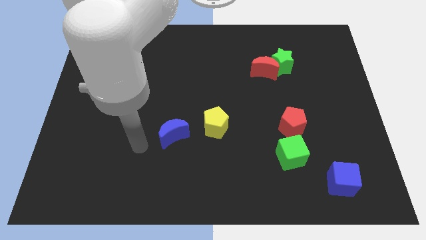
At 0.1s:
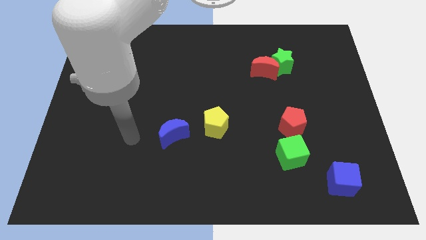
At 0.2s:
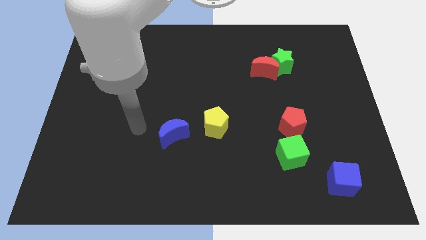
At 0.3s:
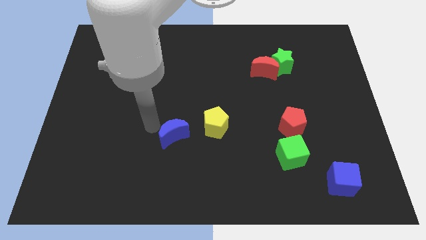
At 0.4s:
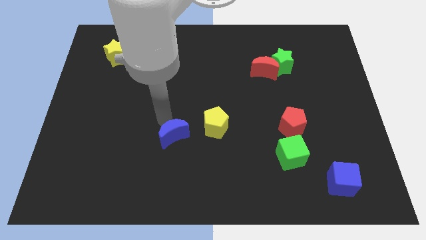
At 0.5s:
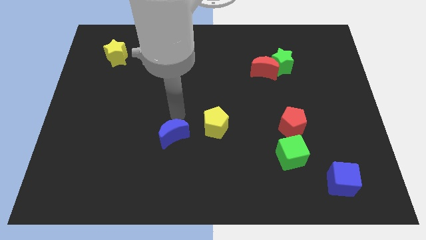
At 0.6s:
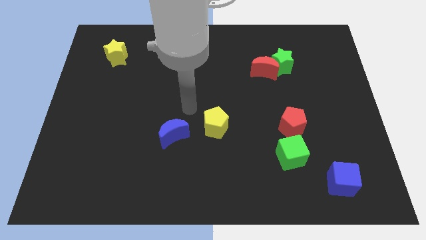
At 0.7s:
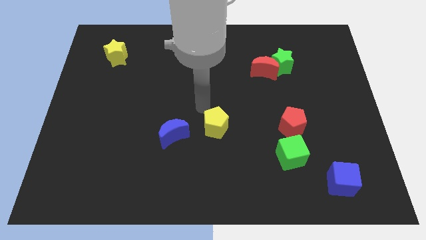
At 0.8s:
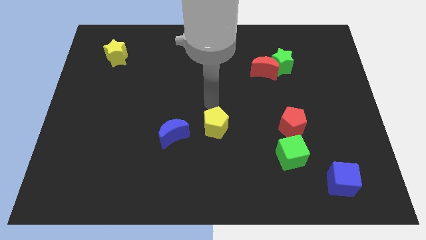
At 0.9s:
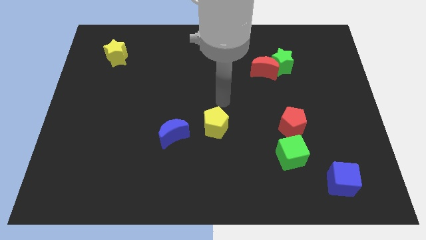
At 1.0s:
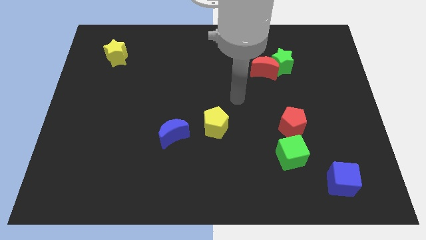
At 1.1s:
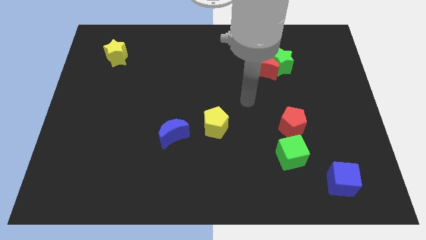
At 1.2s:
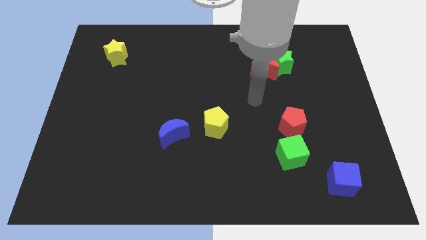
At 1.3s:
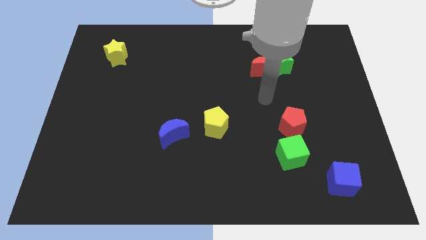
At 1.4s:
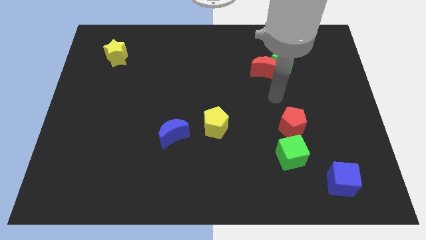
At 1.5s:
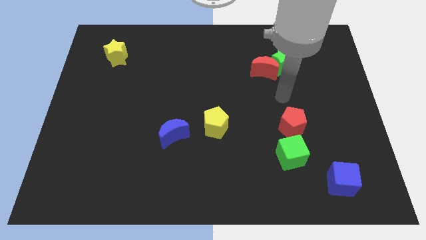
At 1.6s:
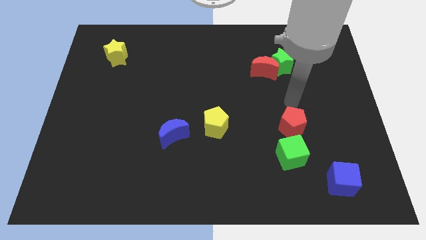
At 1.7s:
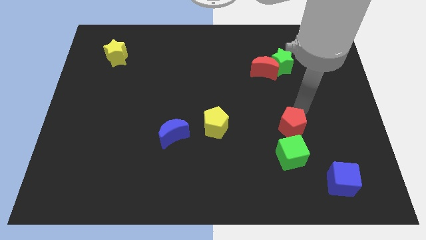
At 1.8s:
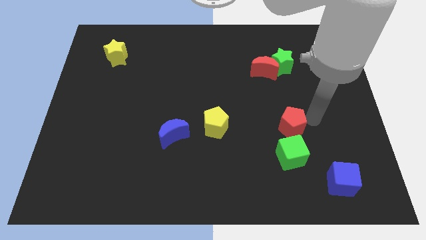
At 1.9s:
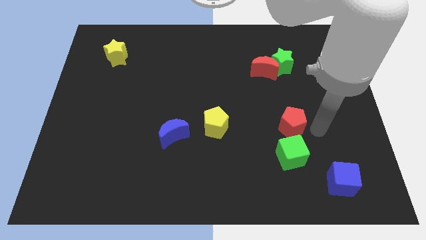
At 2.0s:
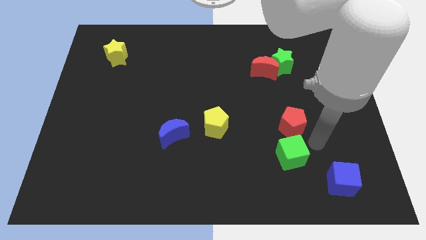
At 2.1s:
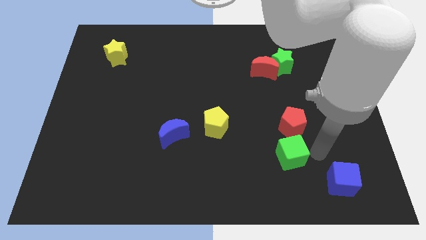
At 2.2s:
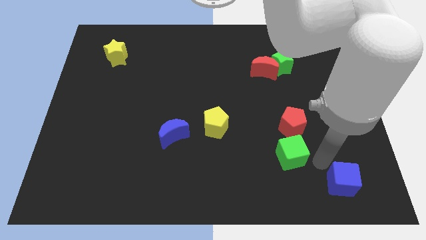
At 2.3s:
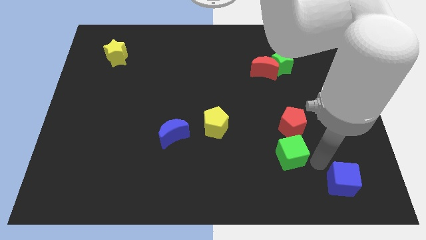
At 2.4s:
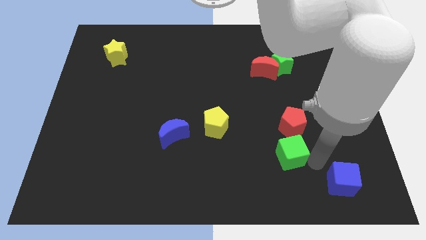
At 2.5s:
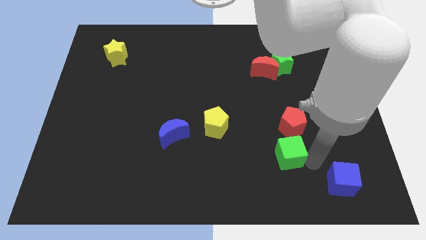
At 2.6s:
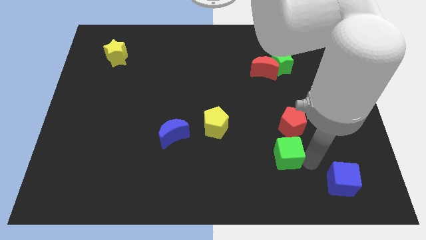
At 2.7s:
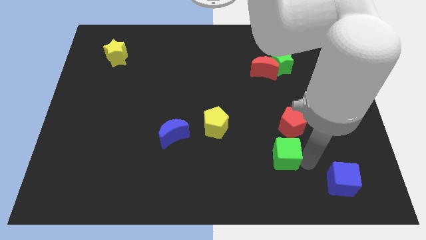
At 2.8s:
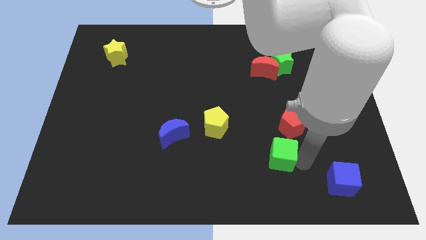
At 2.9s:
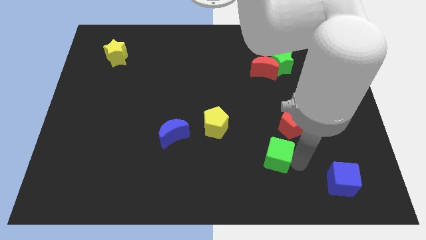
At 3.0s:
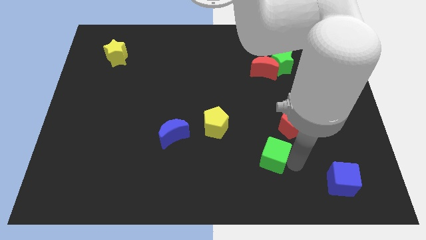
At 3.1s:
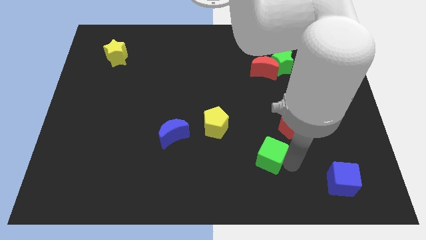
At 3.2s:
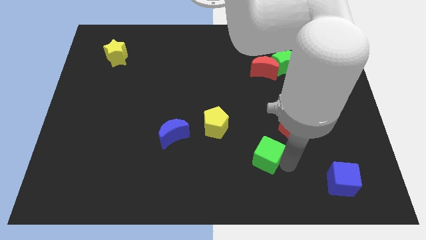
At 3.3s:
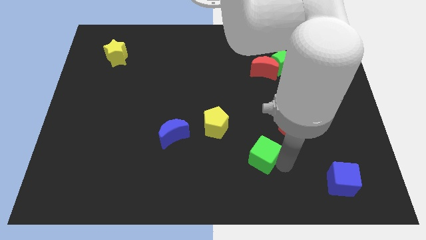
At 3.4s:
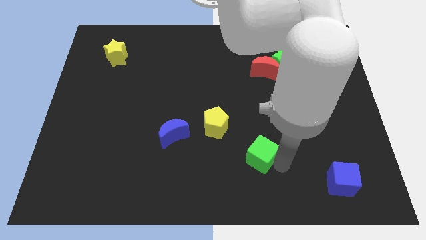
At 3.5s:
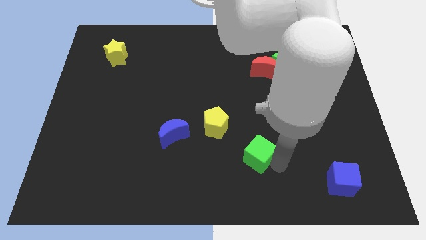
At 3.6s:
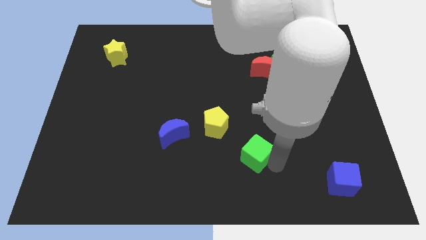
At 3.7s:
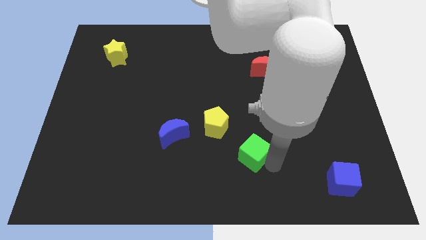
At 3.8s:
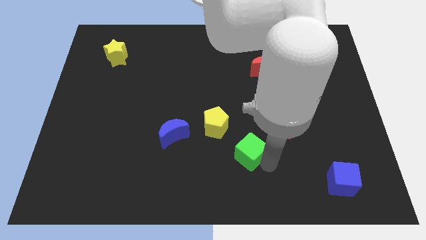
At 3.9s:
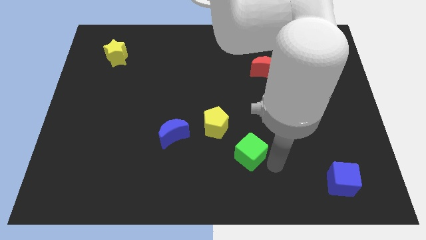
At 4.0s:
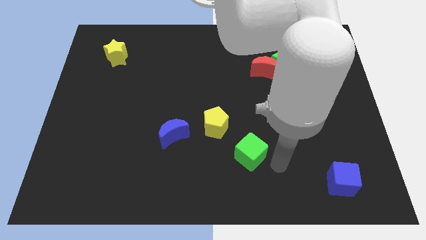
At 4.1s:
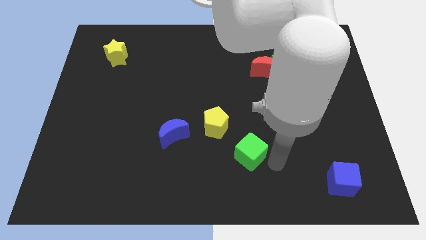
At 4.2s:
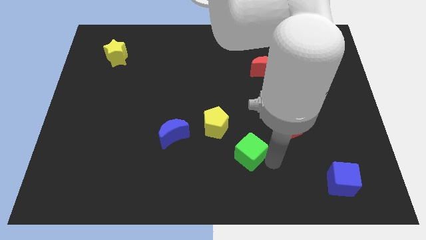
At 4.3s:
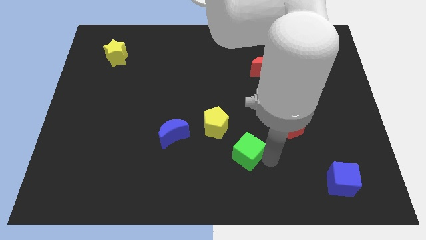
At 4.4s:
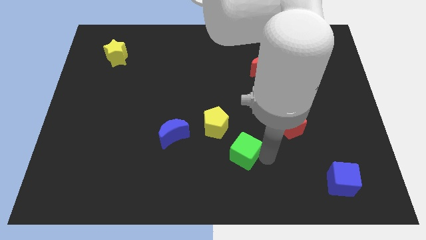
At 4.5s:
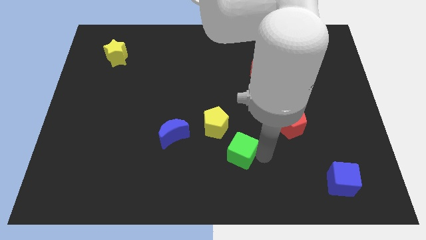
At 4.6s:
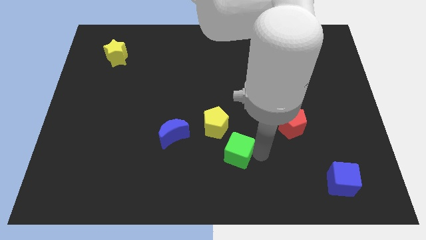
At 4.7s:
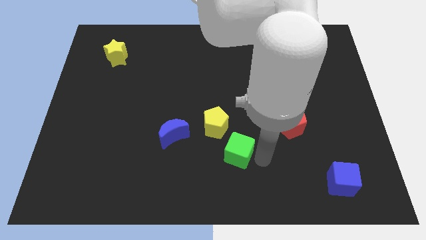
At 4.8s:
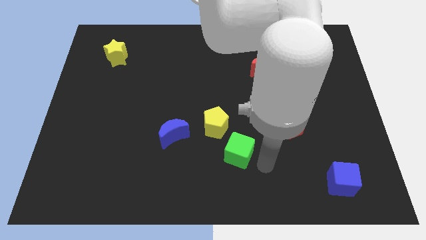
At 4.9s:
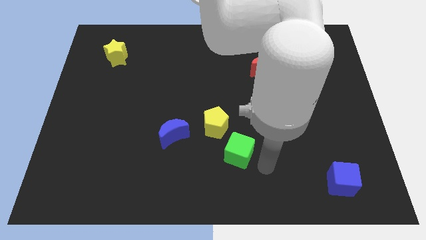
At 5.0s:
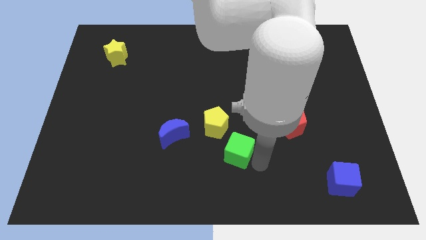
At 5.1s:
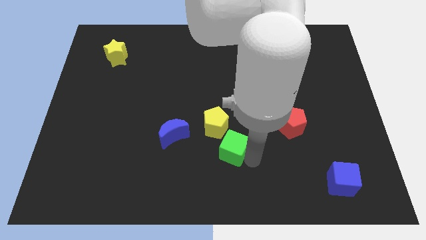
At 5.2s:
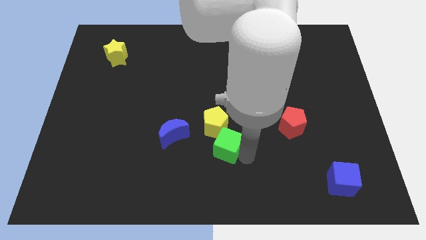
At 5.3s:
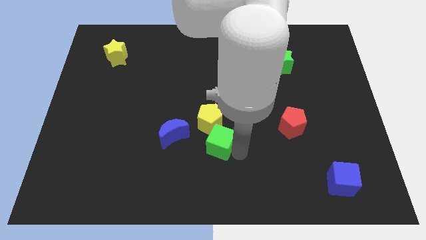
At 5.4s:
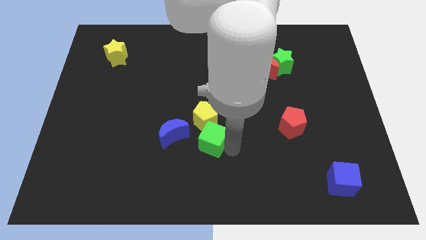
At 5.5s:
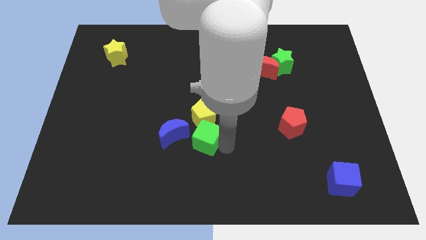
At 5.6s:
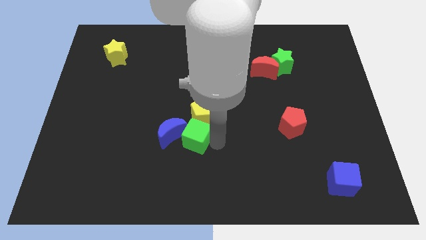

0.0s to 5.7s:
push the green cube to the blue moon

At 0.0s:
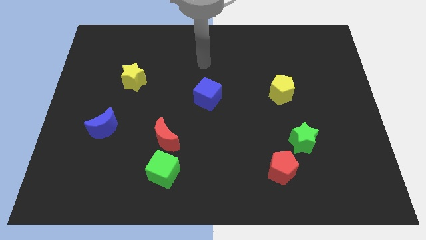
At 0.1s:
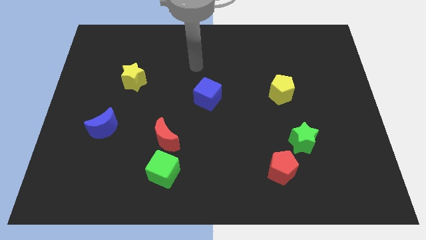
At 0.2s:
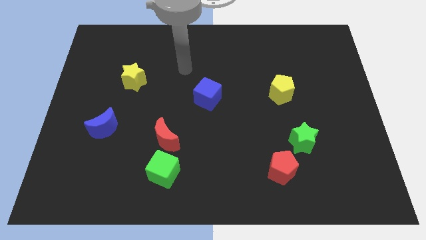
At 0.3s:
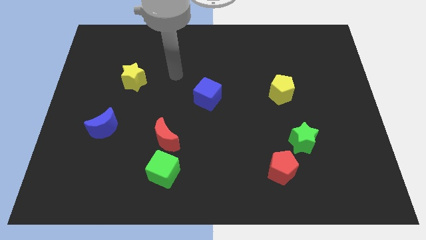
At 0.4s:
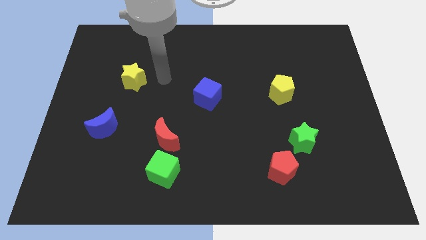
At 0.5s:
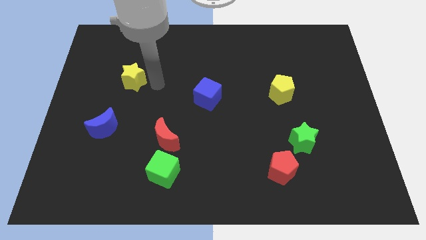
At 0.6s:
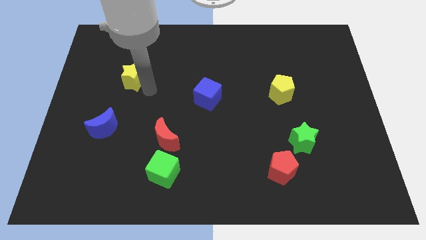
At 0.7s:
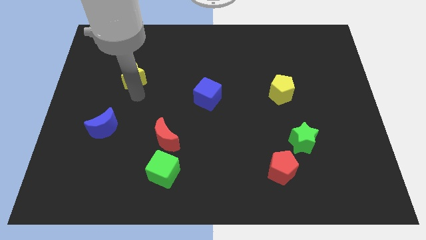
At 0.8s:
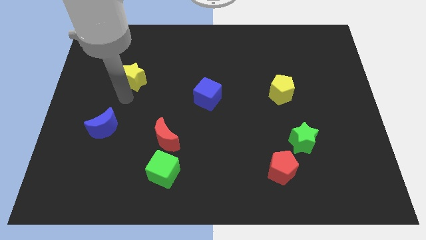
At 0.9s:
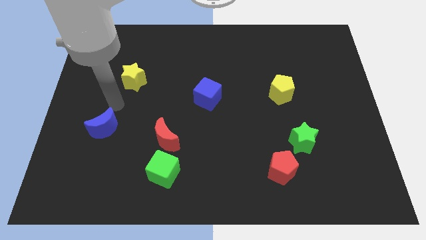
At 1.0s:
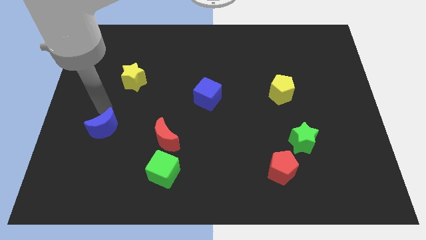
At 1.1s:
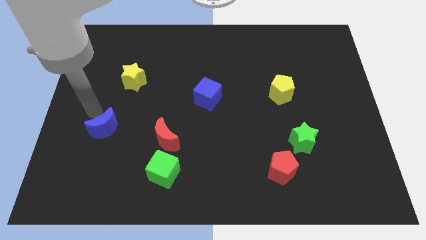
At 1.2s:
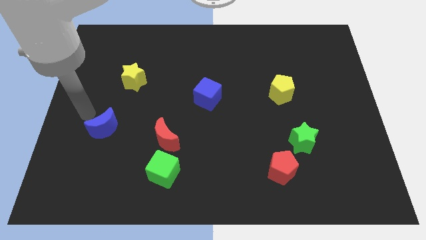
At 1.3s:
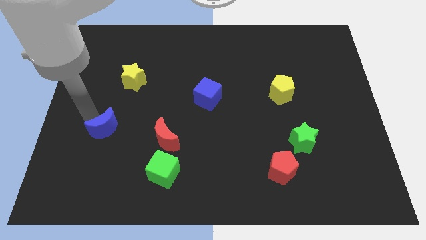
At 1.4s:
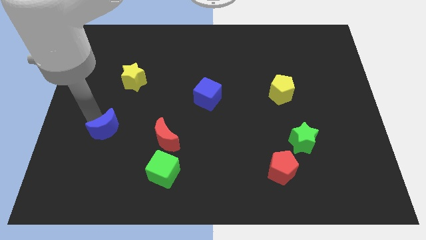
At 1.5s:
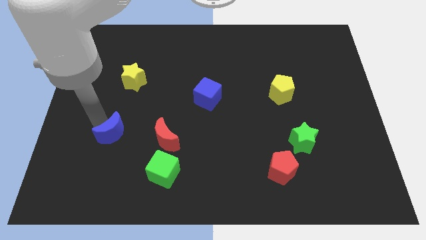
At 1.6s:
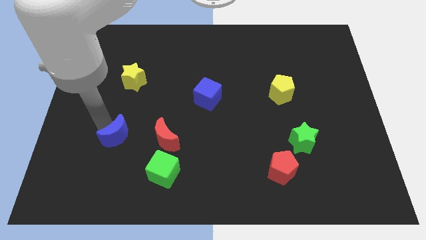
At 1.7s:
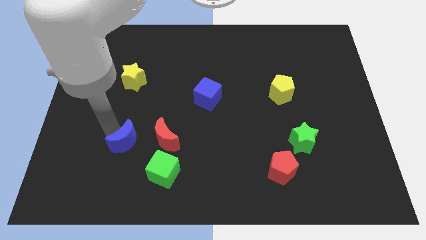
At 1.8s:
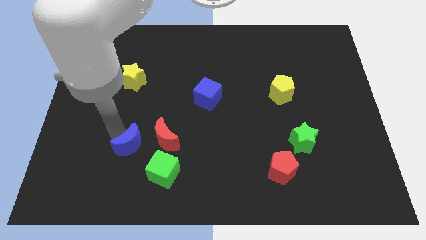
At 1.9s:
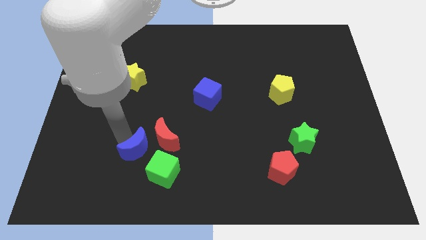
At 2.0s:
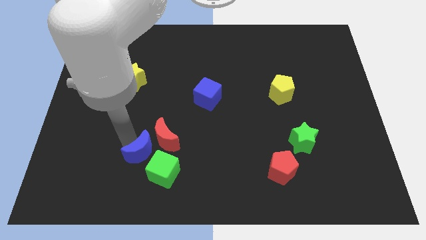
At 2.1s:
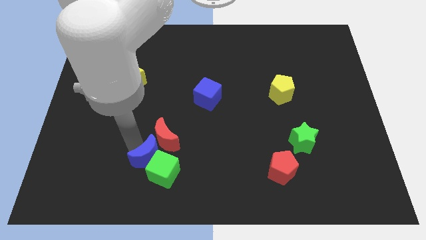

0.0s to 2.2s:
push the blue moon next to the green cube
